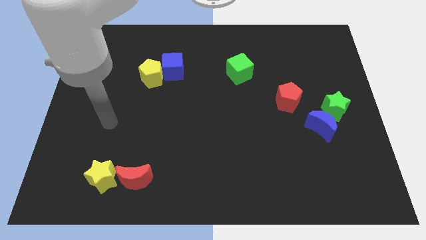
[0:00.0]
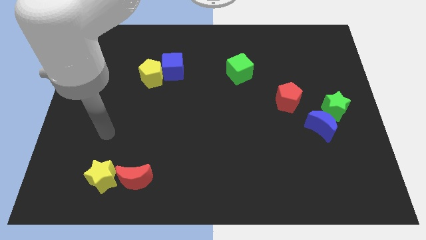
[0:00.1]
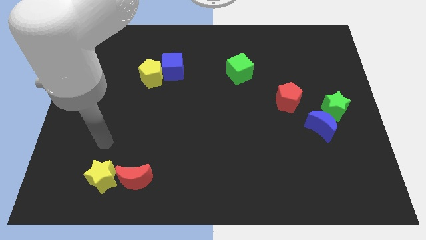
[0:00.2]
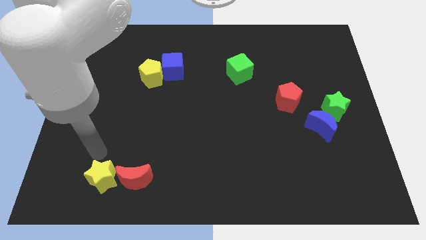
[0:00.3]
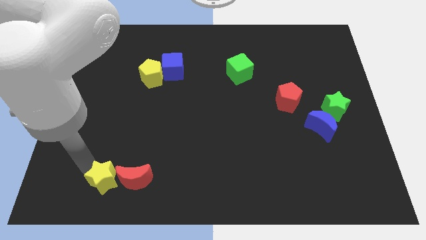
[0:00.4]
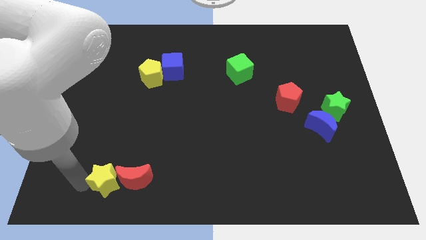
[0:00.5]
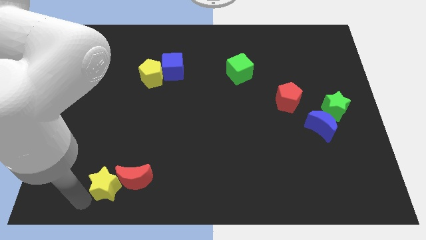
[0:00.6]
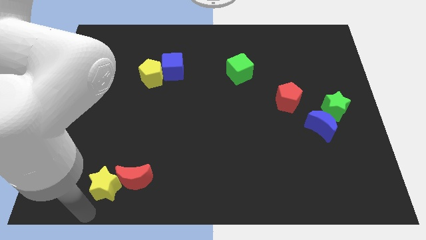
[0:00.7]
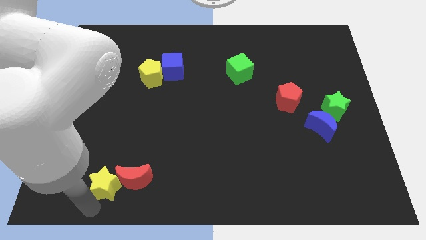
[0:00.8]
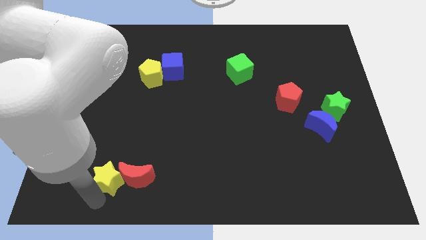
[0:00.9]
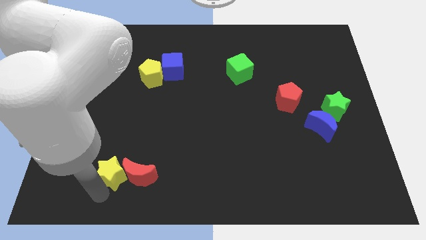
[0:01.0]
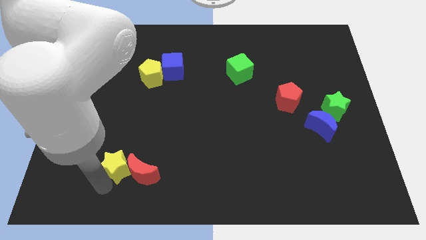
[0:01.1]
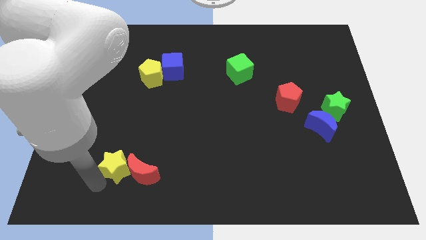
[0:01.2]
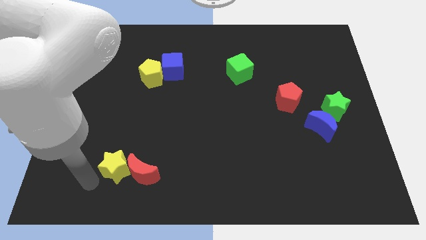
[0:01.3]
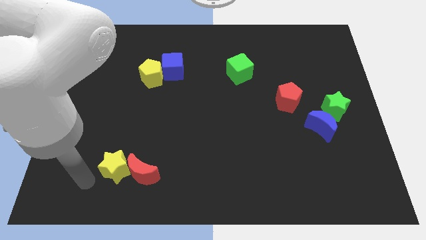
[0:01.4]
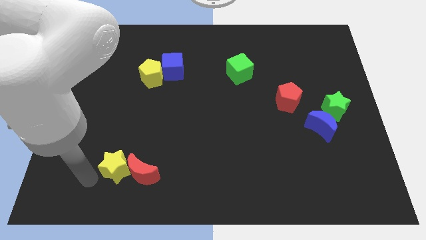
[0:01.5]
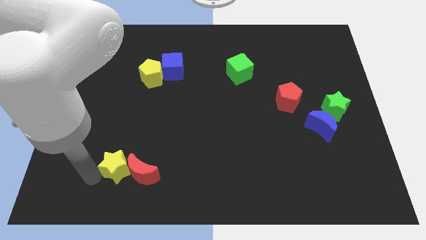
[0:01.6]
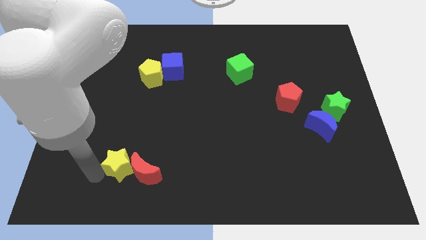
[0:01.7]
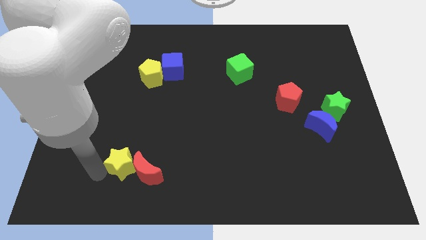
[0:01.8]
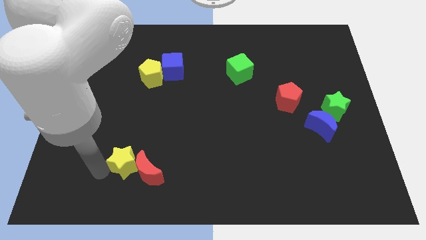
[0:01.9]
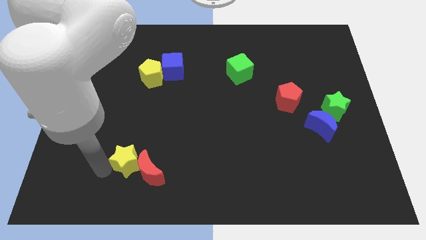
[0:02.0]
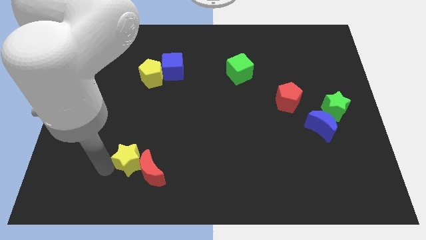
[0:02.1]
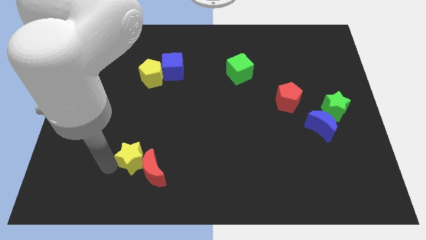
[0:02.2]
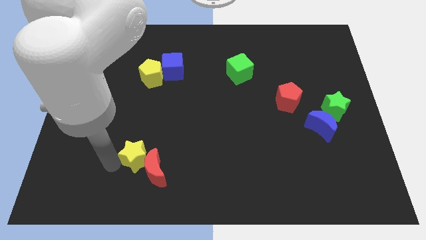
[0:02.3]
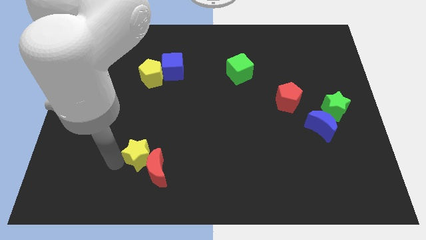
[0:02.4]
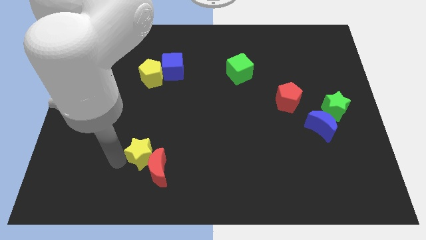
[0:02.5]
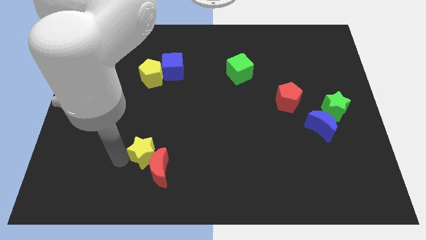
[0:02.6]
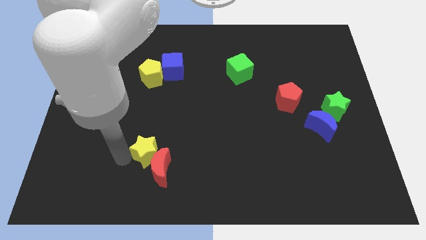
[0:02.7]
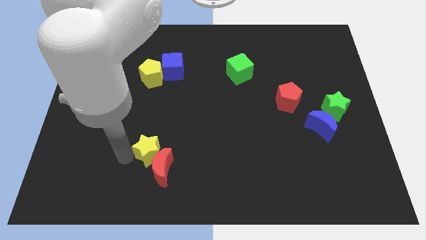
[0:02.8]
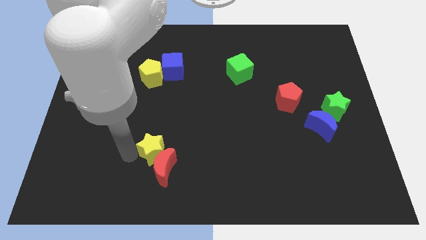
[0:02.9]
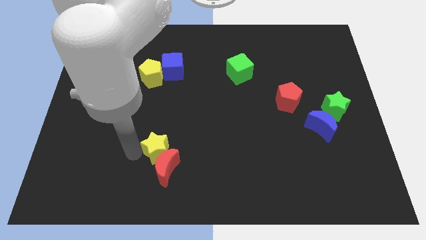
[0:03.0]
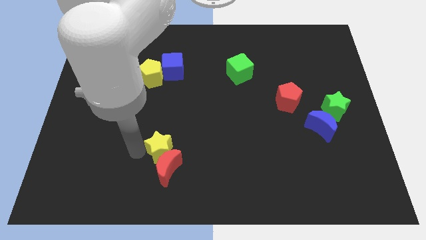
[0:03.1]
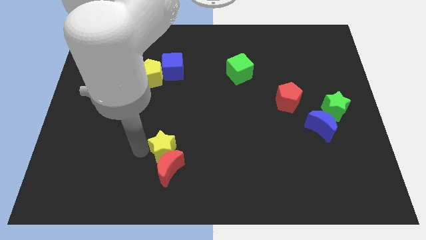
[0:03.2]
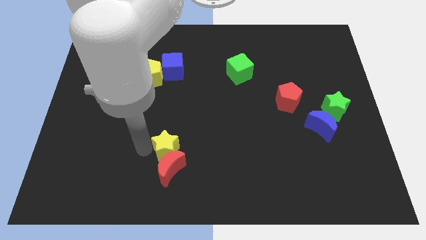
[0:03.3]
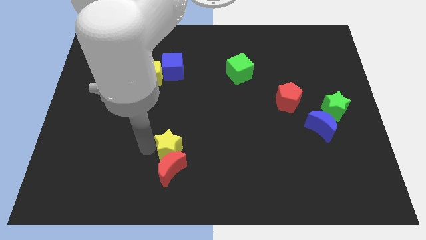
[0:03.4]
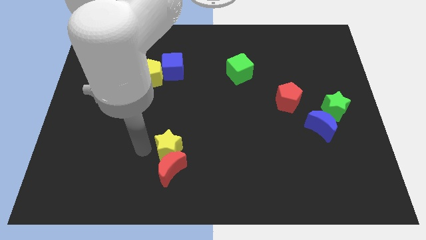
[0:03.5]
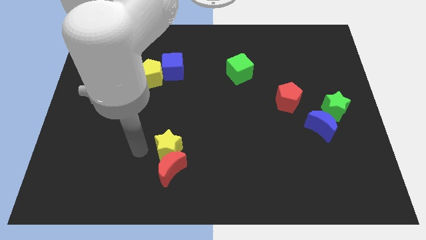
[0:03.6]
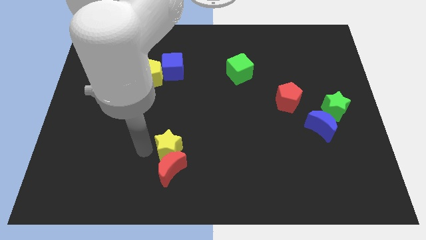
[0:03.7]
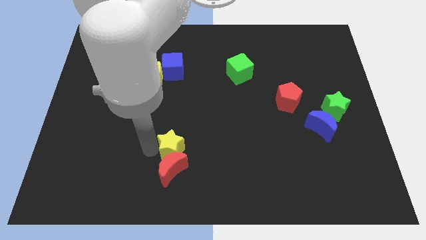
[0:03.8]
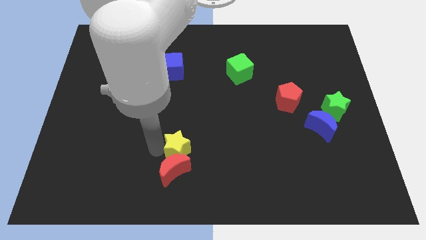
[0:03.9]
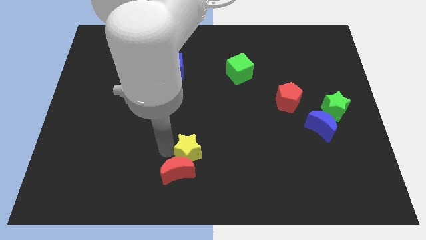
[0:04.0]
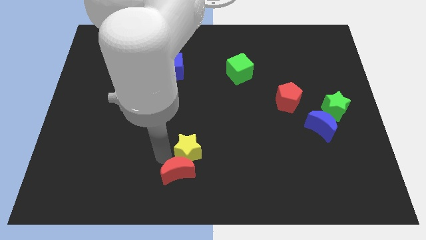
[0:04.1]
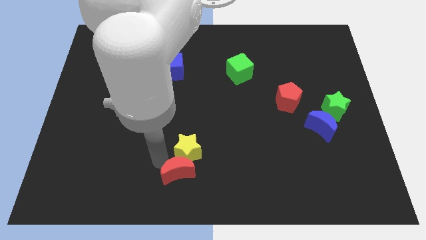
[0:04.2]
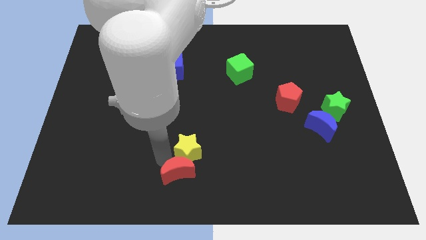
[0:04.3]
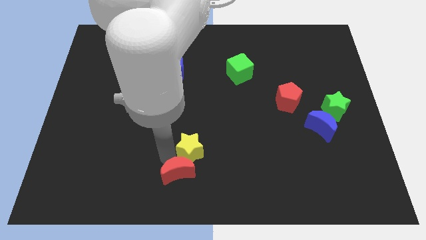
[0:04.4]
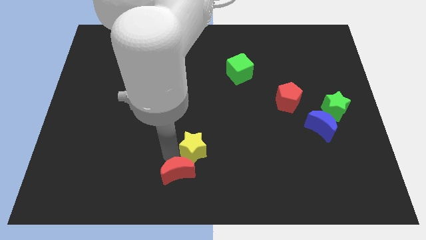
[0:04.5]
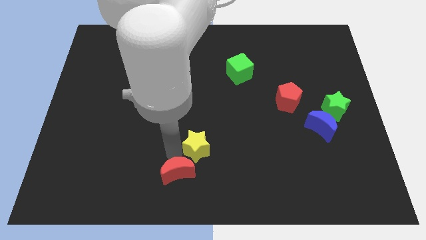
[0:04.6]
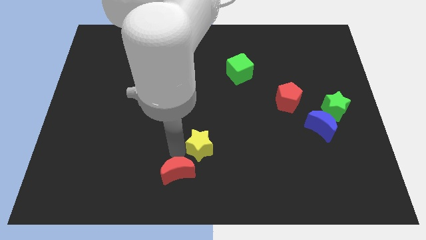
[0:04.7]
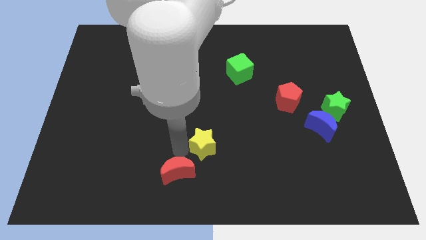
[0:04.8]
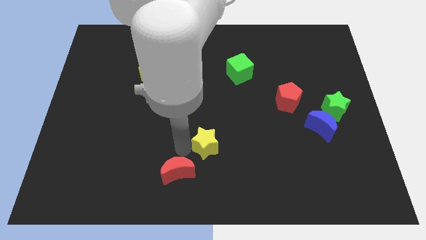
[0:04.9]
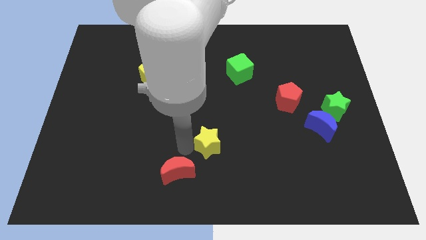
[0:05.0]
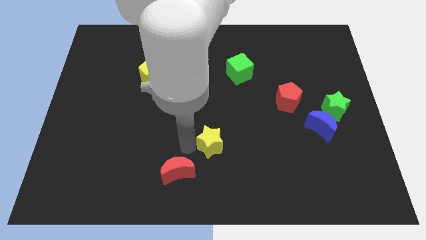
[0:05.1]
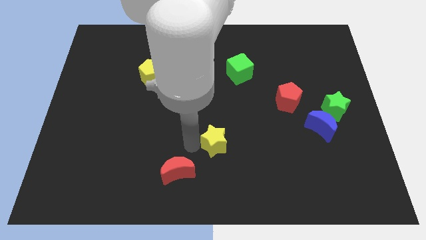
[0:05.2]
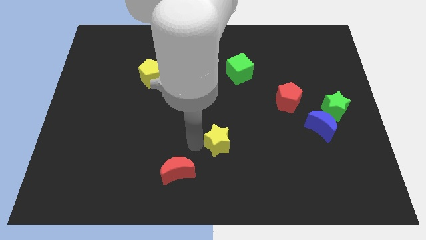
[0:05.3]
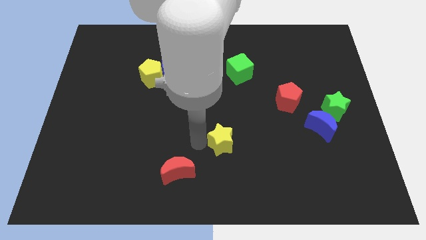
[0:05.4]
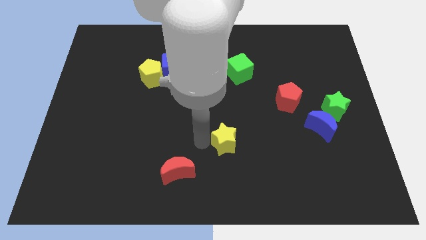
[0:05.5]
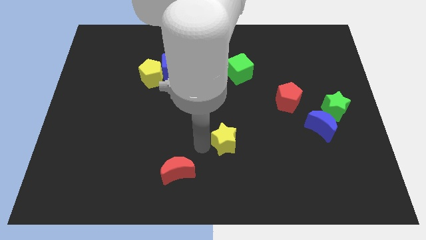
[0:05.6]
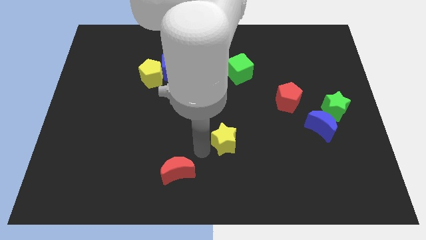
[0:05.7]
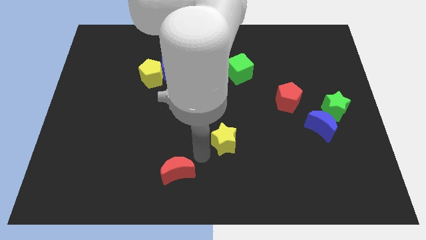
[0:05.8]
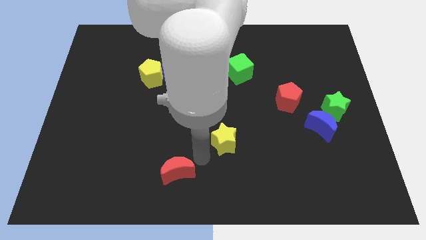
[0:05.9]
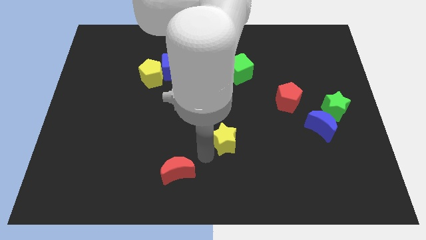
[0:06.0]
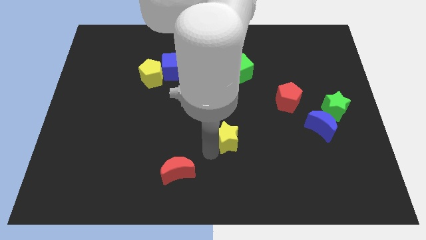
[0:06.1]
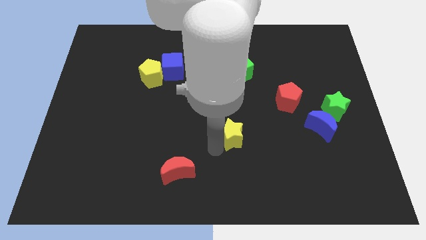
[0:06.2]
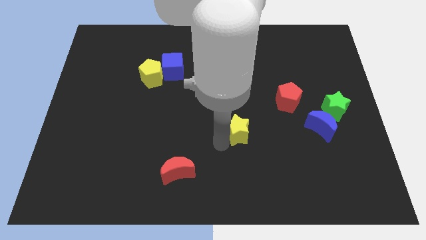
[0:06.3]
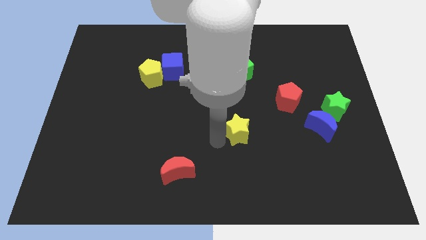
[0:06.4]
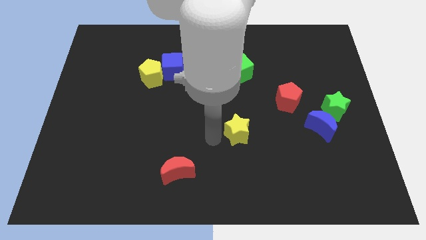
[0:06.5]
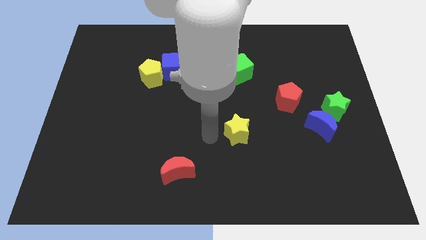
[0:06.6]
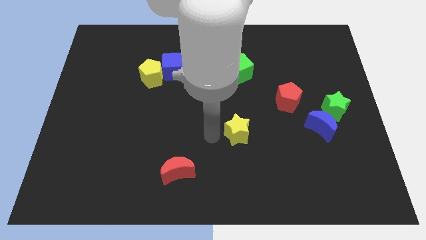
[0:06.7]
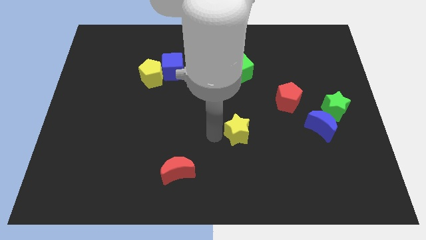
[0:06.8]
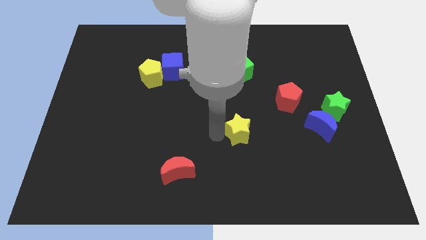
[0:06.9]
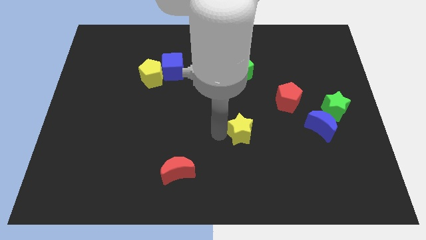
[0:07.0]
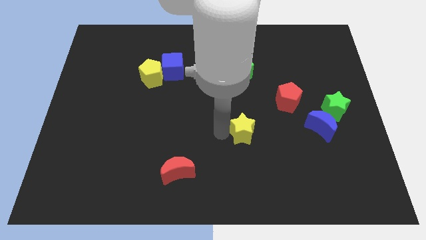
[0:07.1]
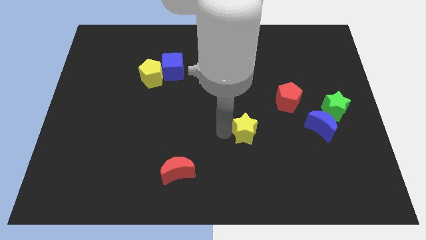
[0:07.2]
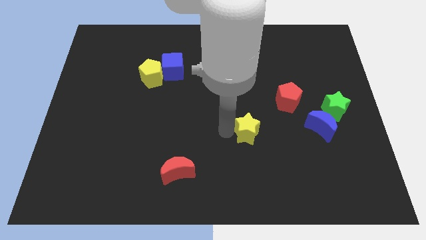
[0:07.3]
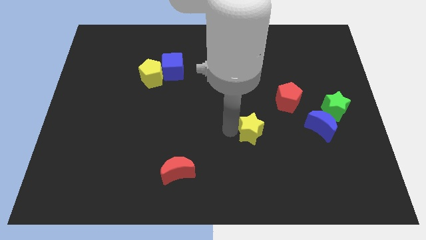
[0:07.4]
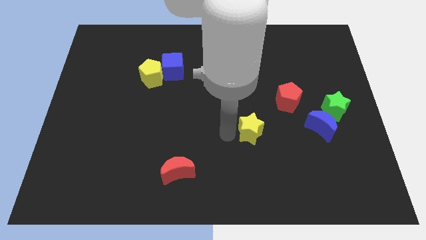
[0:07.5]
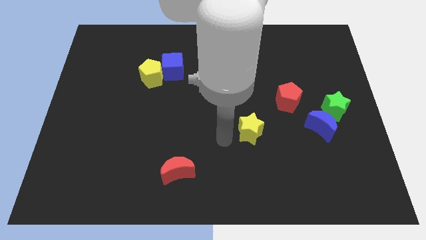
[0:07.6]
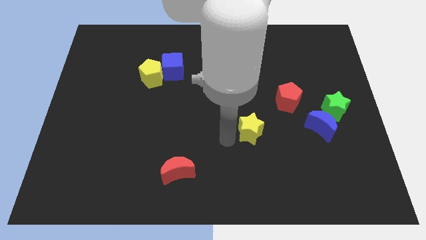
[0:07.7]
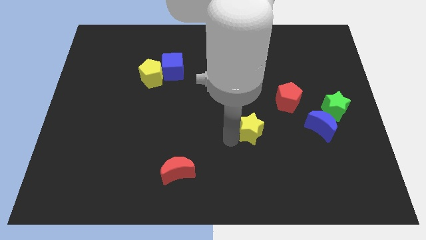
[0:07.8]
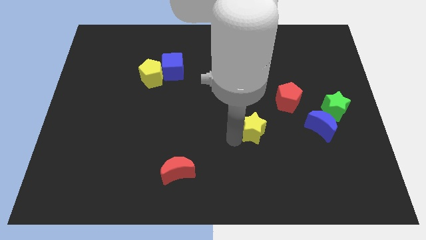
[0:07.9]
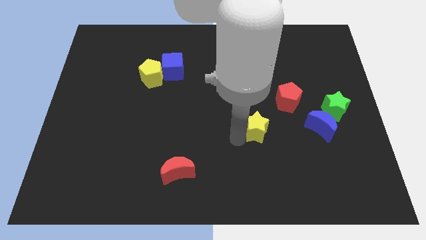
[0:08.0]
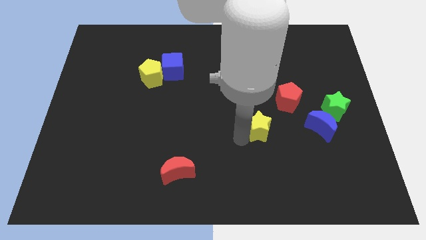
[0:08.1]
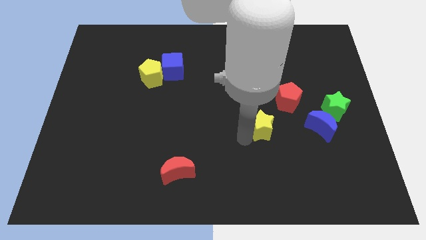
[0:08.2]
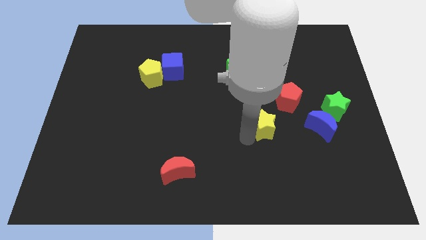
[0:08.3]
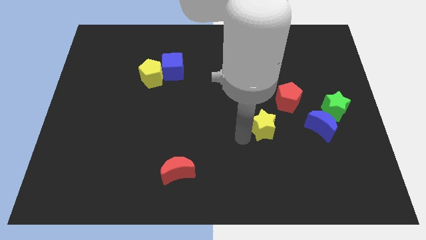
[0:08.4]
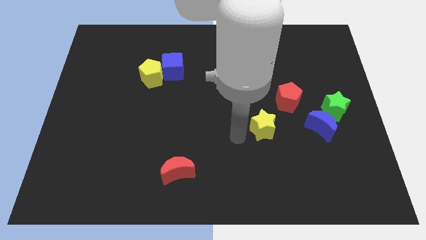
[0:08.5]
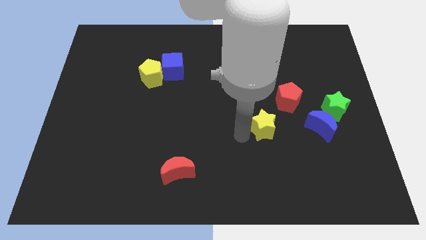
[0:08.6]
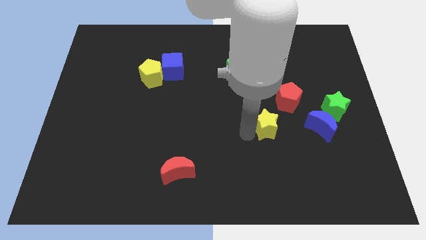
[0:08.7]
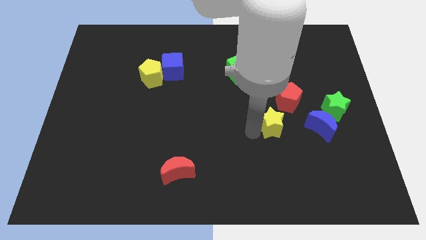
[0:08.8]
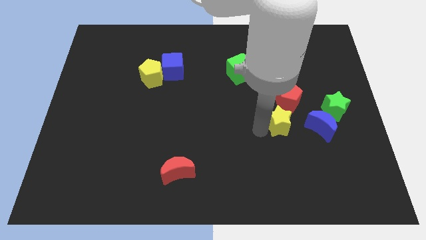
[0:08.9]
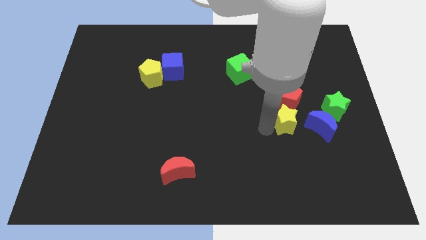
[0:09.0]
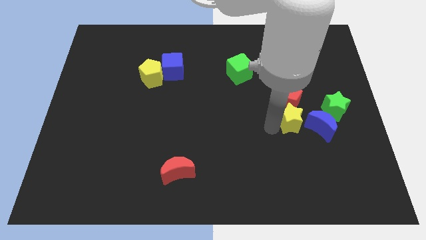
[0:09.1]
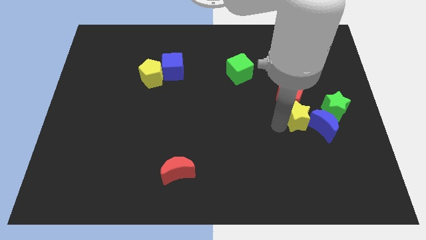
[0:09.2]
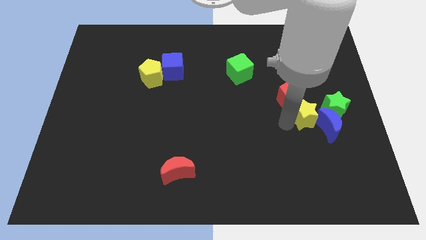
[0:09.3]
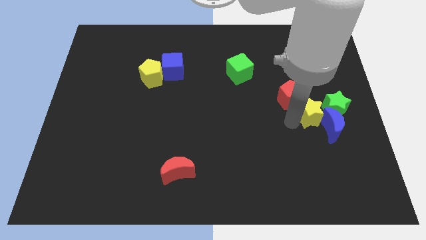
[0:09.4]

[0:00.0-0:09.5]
slide the yellow star to the green star
